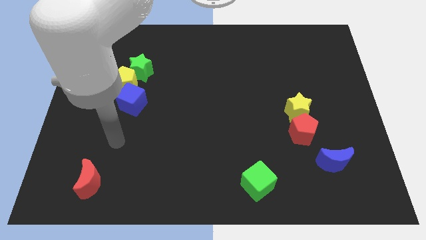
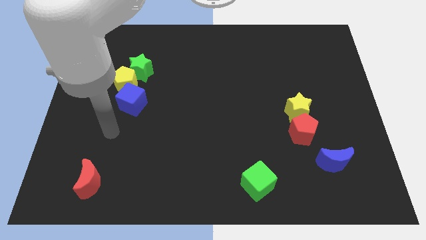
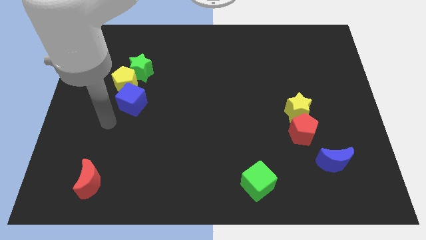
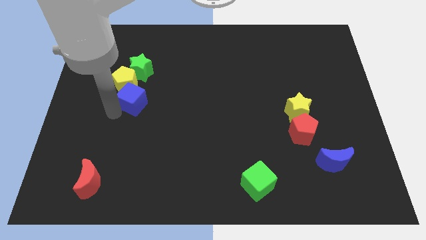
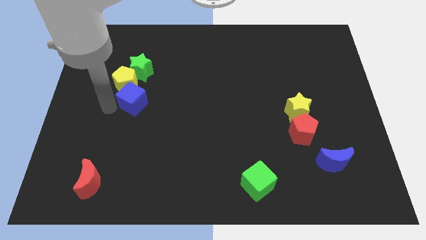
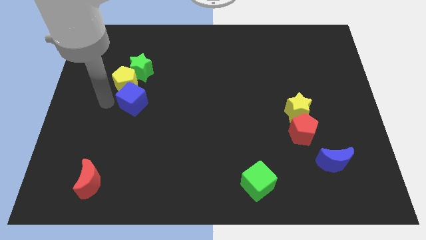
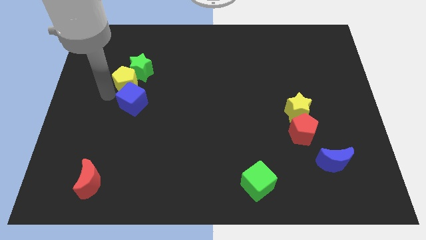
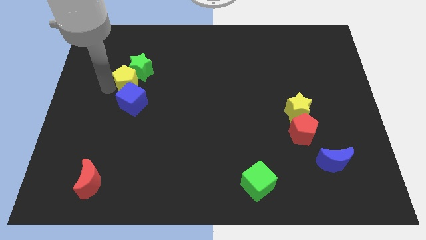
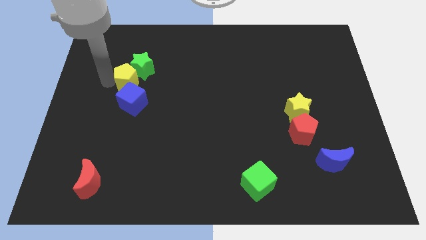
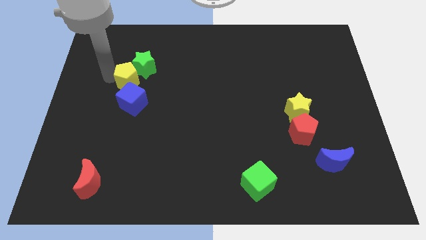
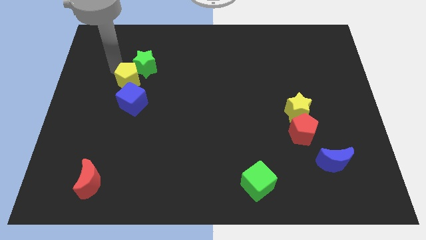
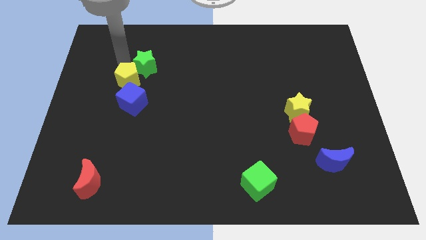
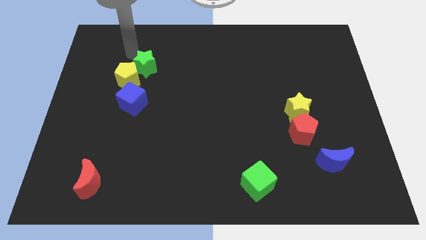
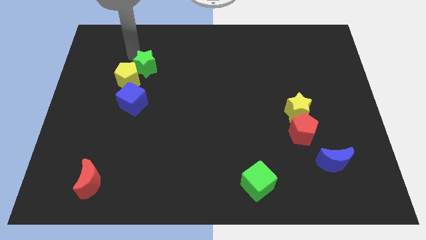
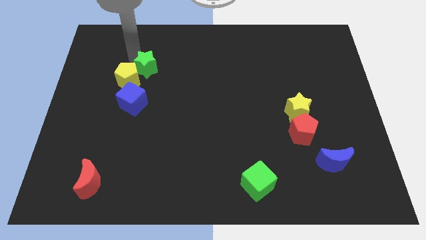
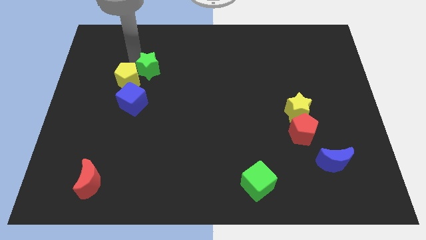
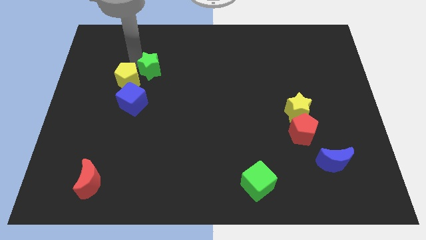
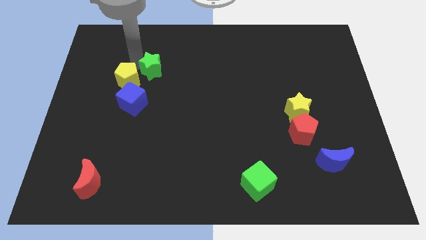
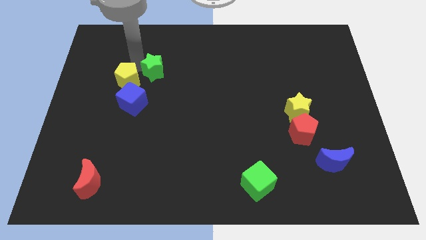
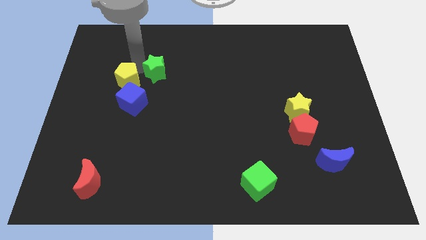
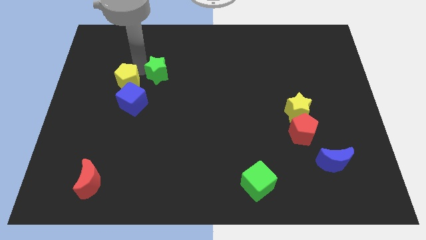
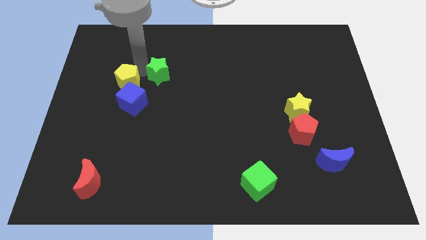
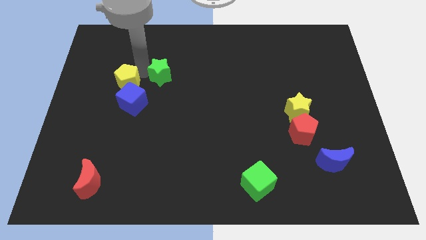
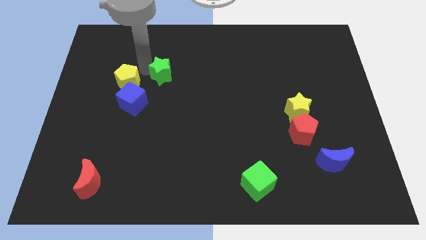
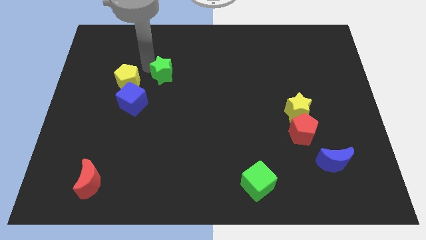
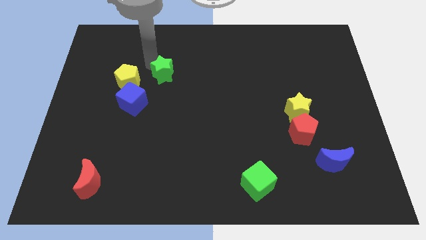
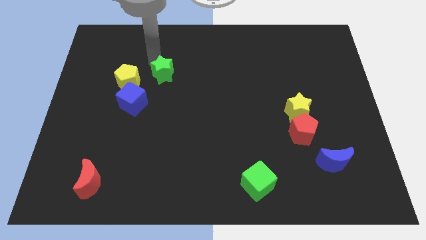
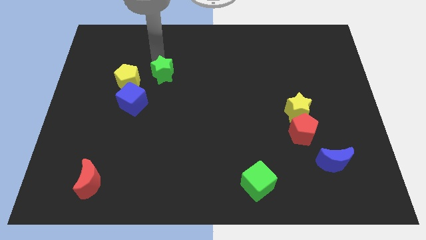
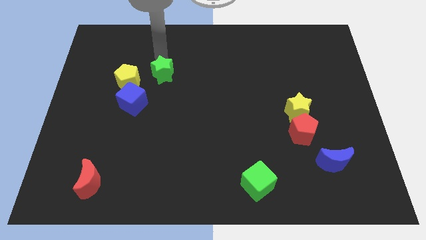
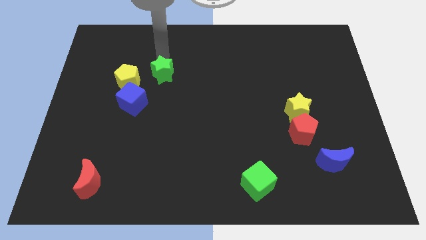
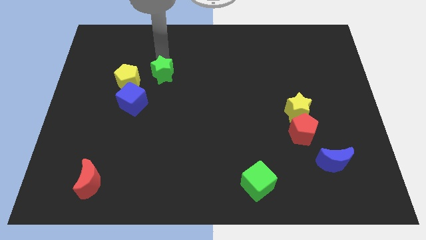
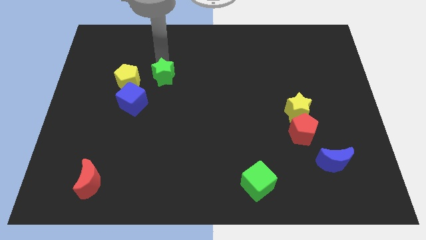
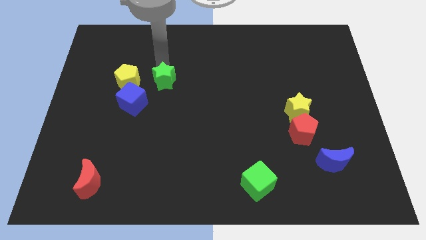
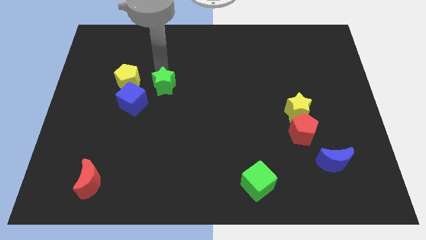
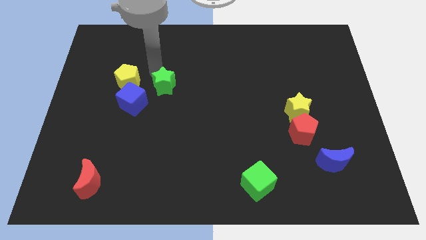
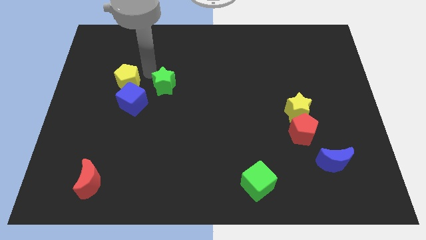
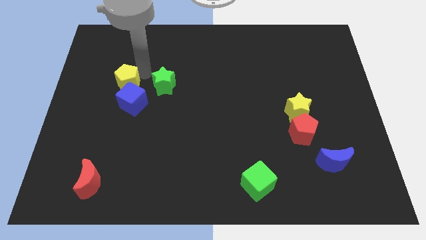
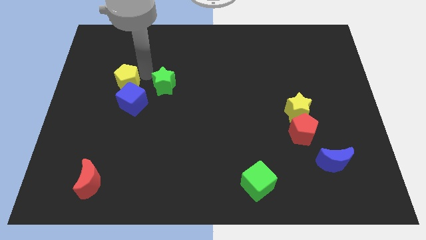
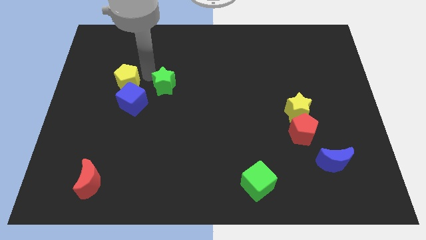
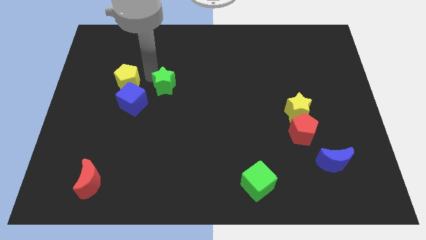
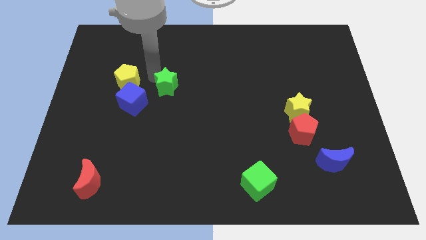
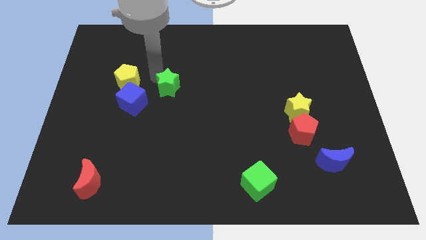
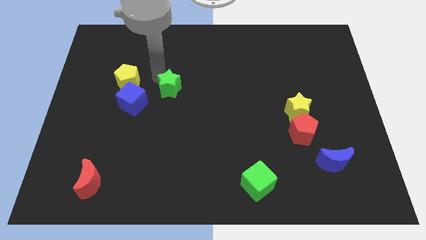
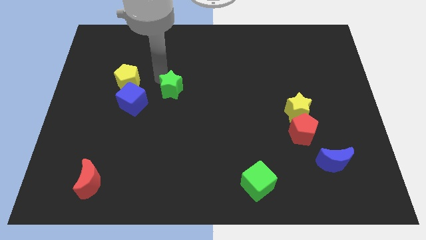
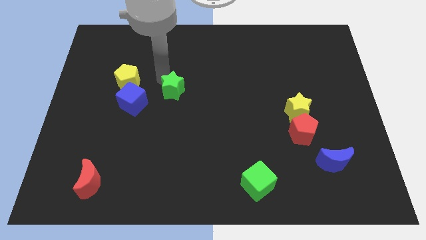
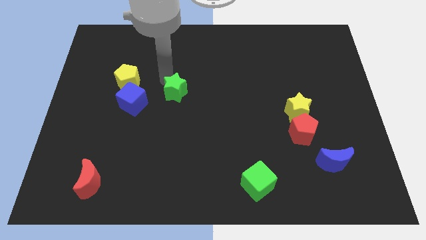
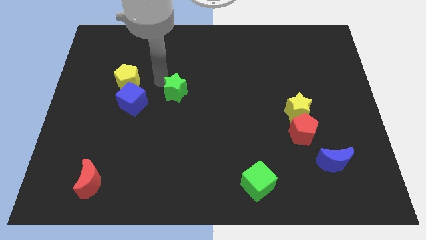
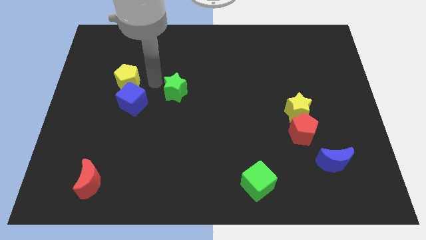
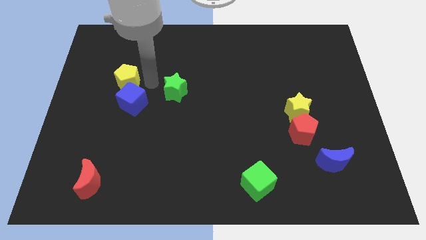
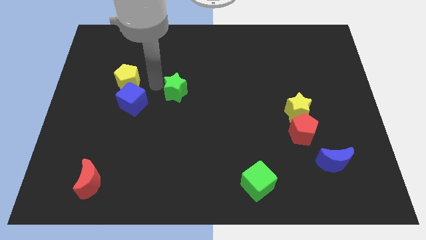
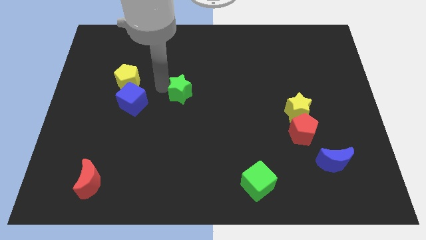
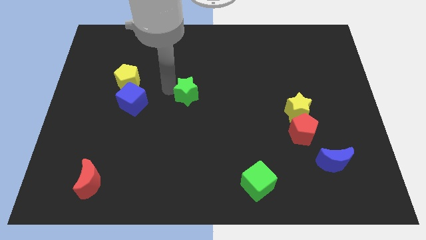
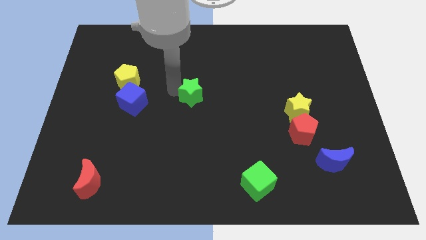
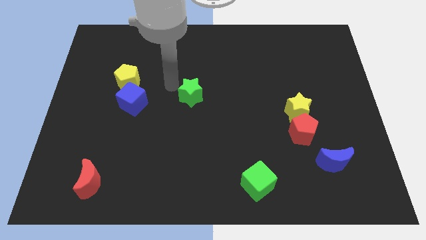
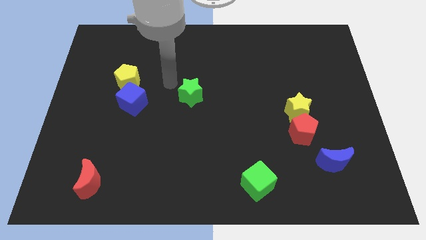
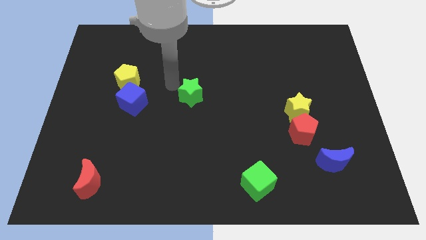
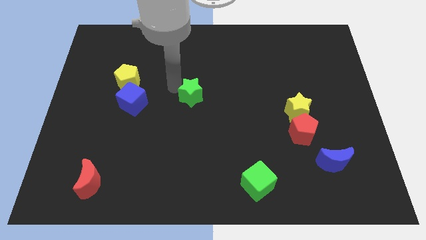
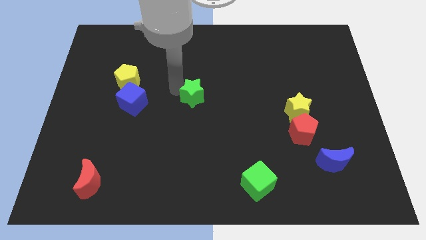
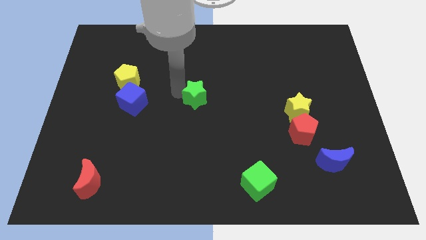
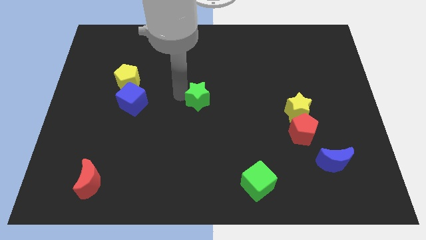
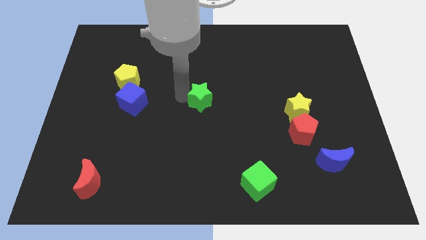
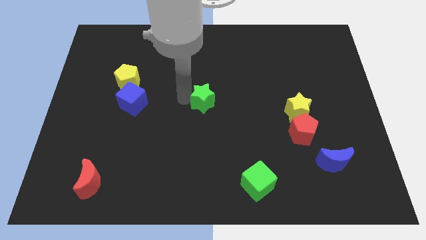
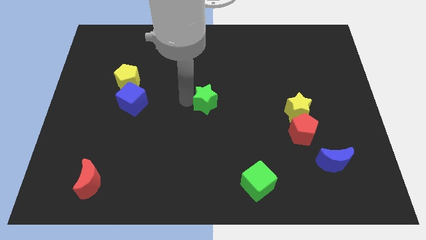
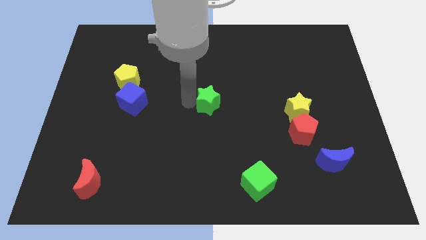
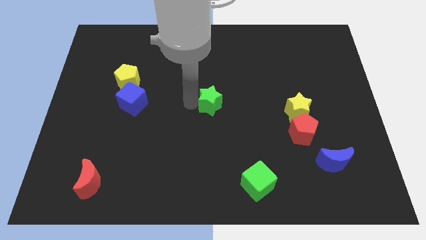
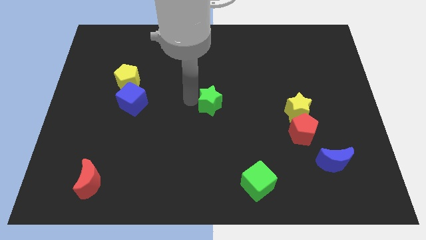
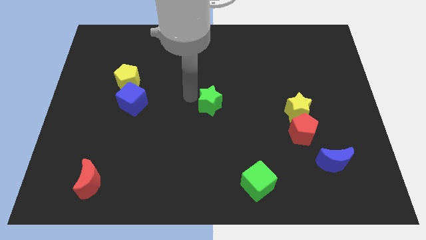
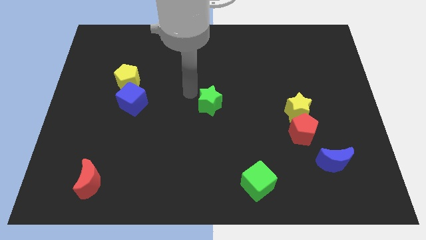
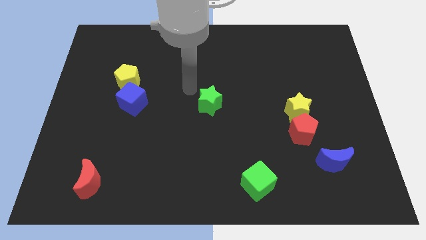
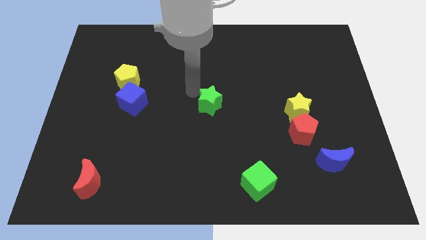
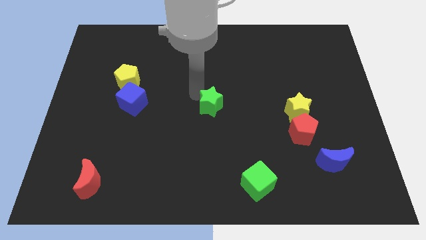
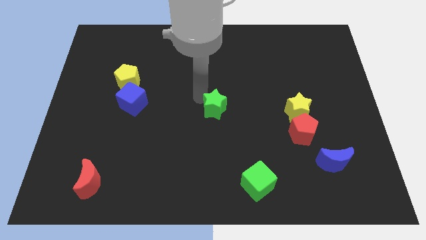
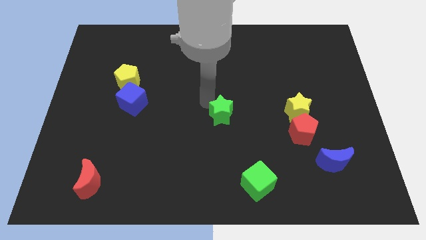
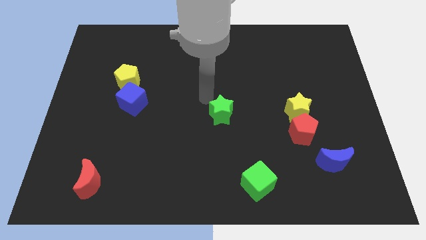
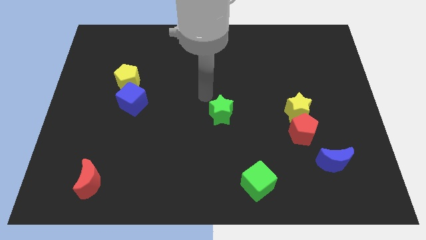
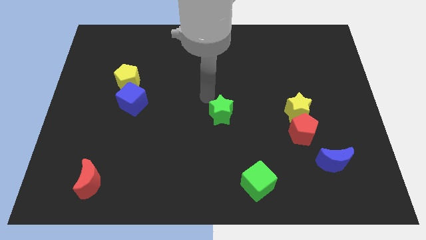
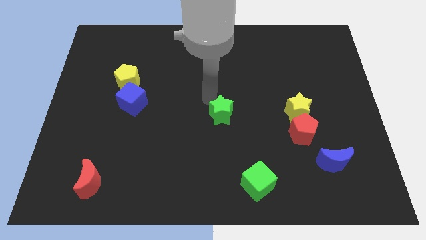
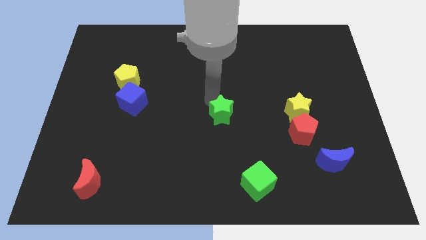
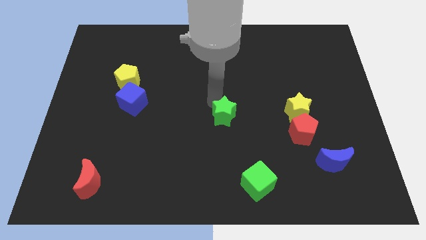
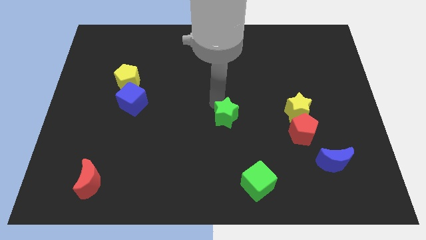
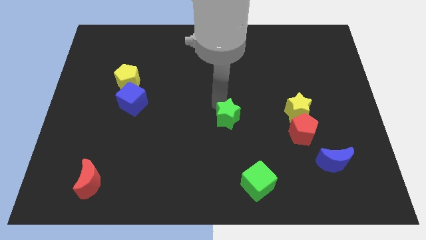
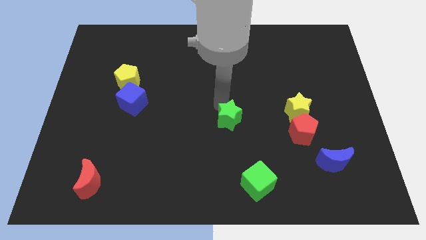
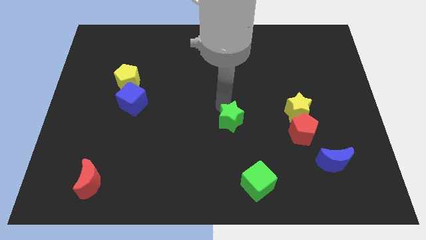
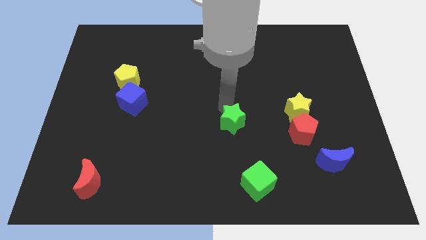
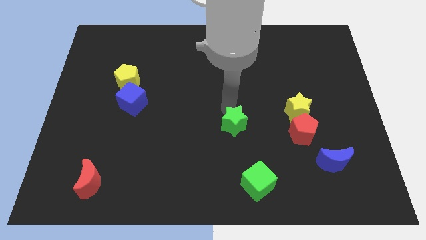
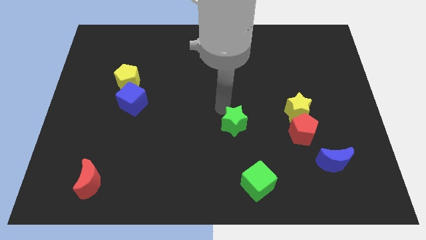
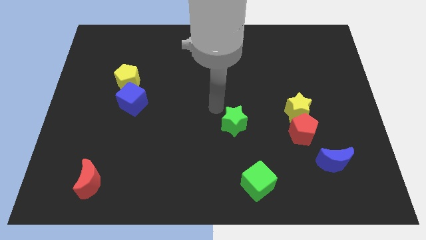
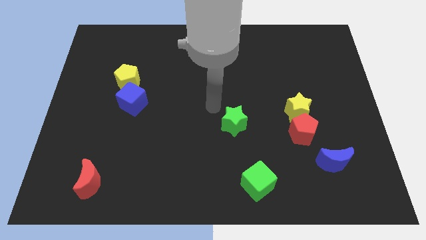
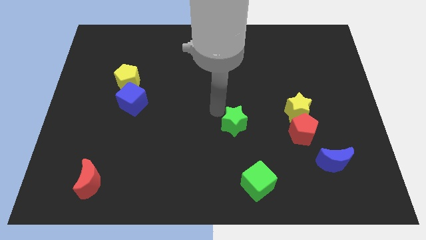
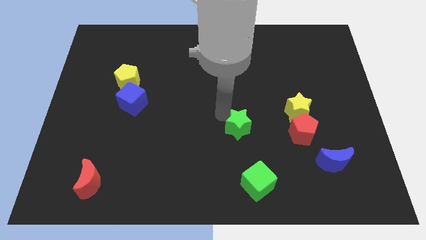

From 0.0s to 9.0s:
move the green star above the green cube
